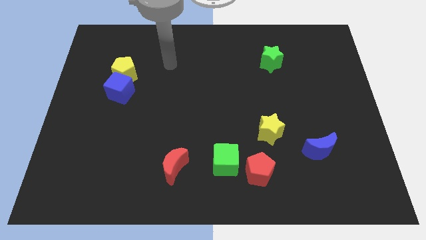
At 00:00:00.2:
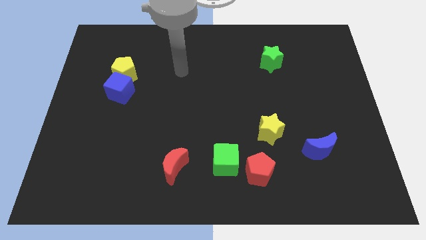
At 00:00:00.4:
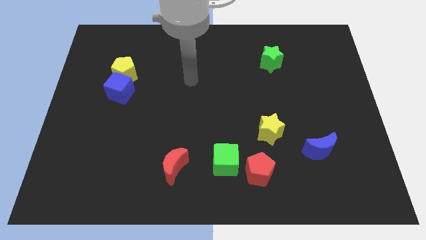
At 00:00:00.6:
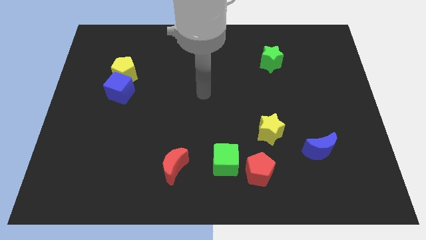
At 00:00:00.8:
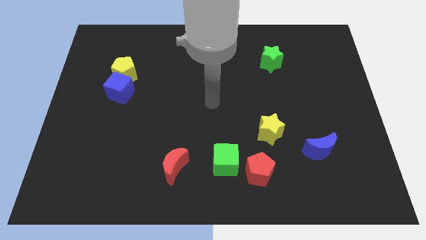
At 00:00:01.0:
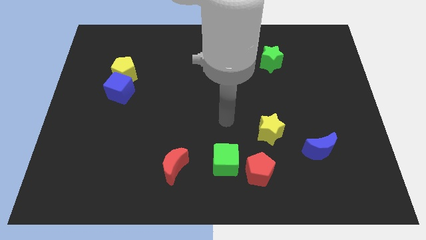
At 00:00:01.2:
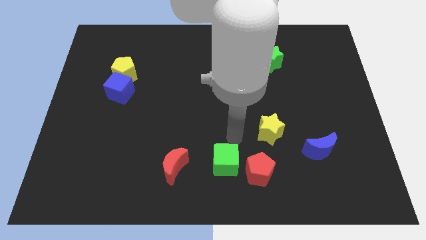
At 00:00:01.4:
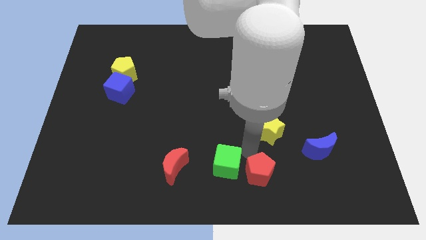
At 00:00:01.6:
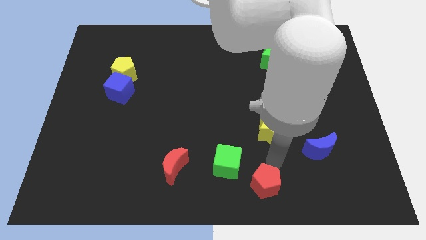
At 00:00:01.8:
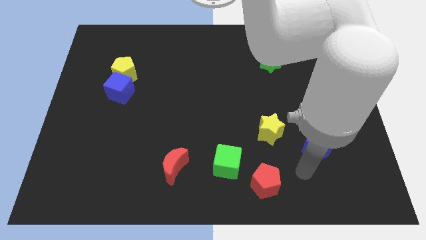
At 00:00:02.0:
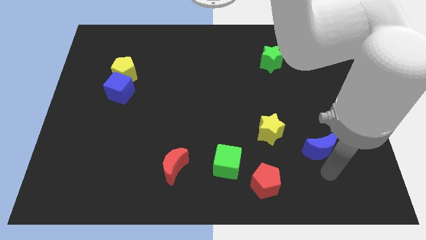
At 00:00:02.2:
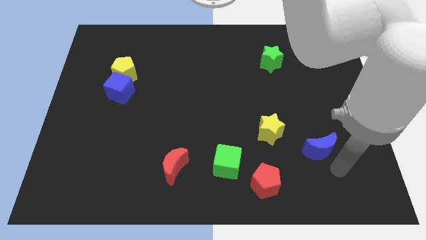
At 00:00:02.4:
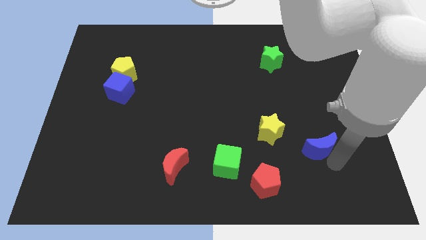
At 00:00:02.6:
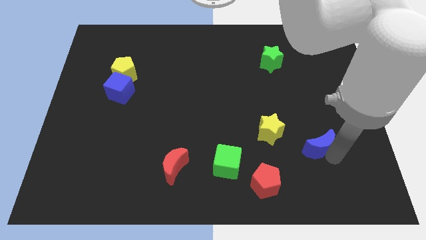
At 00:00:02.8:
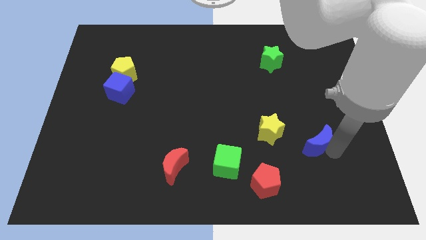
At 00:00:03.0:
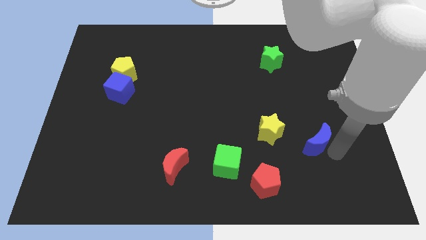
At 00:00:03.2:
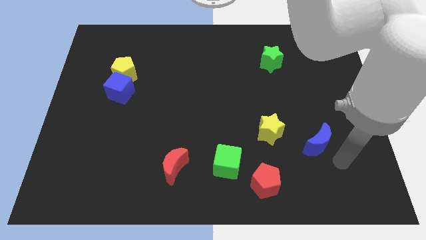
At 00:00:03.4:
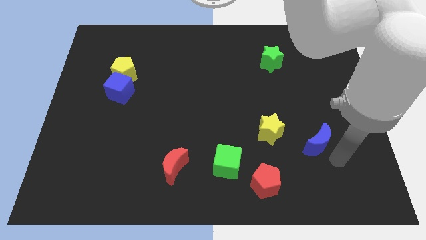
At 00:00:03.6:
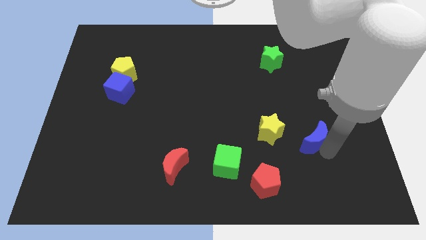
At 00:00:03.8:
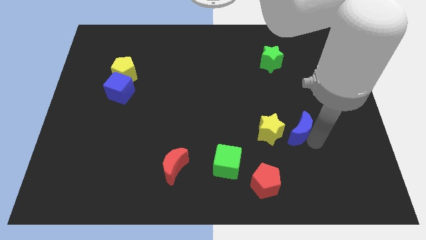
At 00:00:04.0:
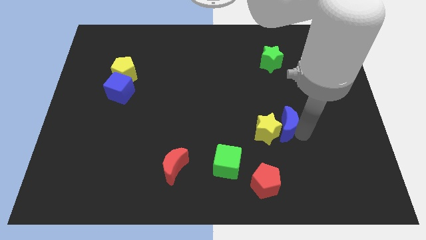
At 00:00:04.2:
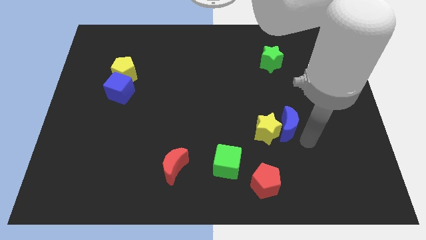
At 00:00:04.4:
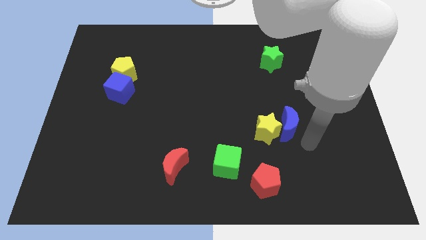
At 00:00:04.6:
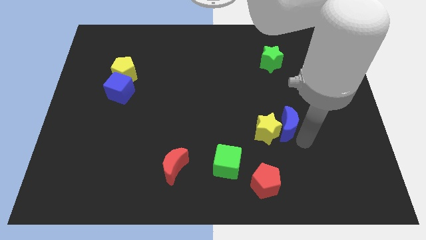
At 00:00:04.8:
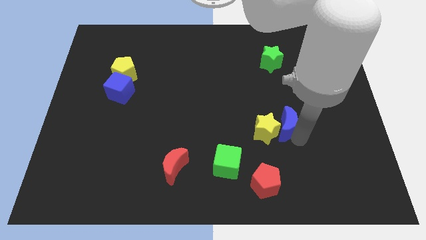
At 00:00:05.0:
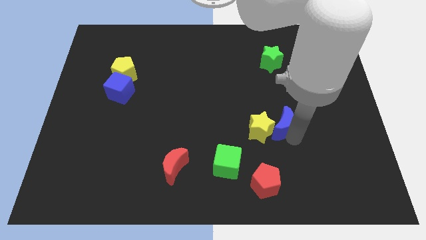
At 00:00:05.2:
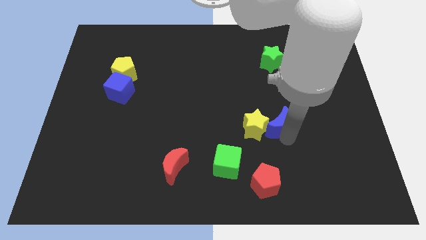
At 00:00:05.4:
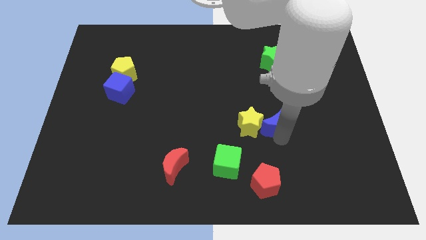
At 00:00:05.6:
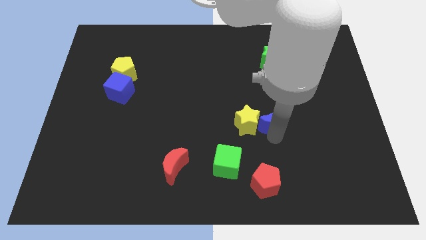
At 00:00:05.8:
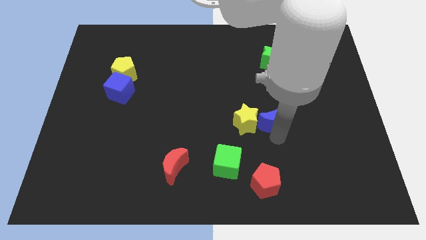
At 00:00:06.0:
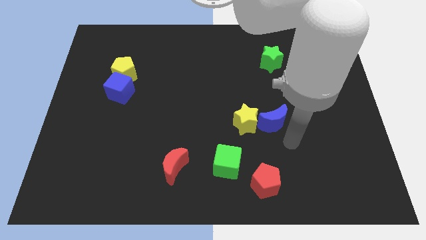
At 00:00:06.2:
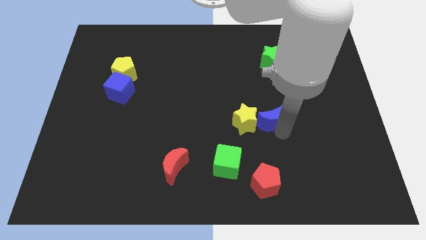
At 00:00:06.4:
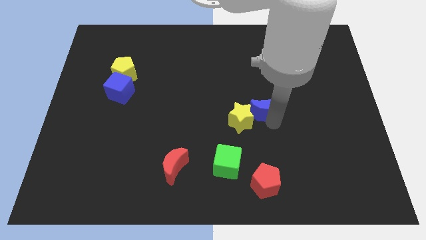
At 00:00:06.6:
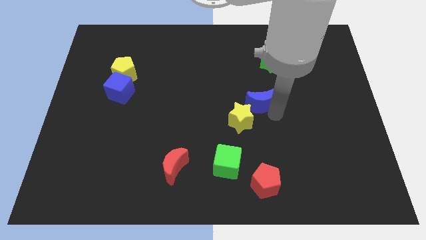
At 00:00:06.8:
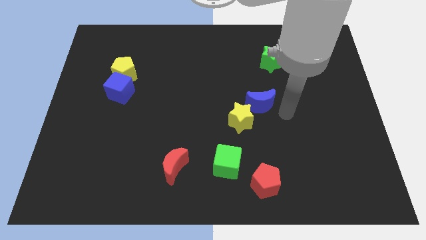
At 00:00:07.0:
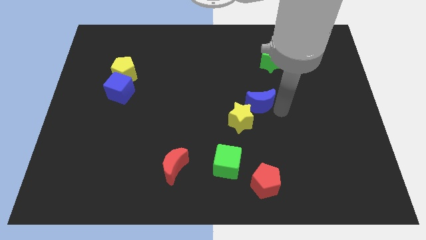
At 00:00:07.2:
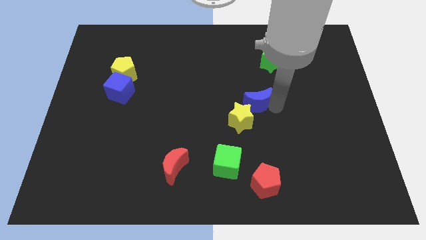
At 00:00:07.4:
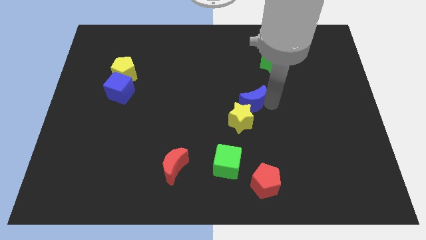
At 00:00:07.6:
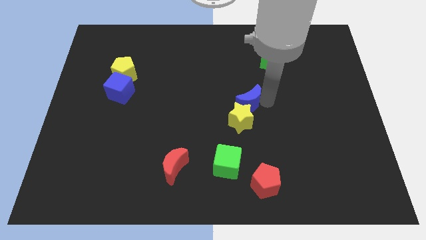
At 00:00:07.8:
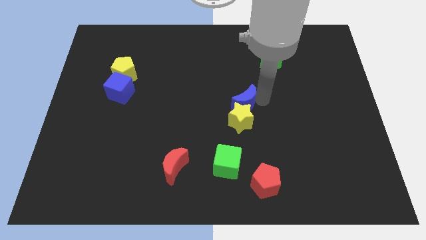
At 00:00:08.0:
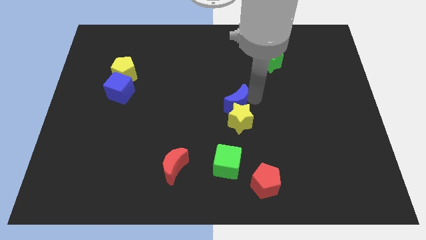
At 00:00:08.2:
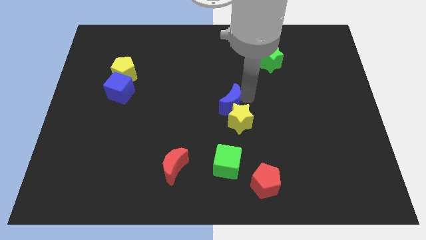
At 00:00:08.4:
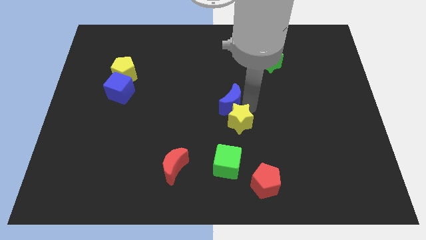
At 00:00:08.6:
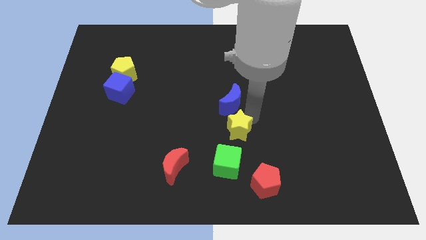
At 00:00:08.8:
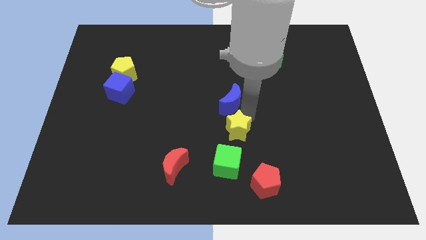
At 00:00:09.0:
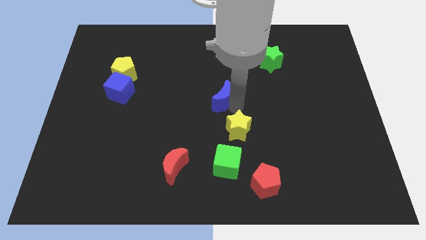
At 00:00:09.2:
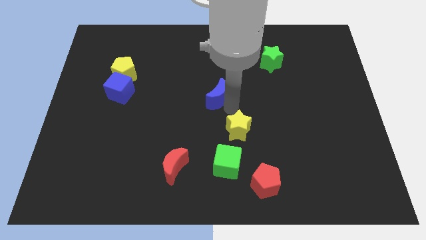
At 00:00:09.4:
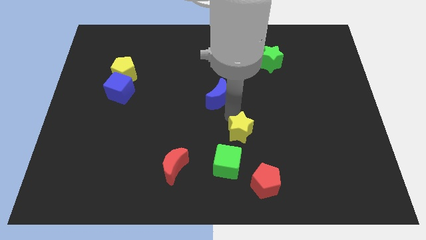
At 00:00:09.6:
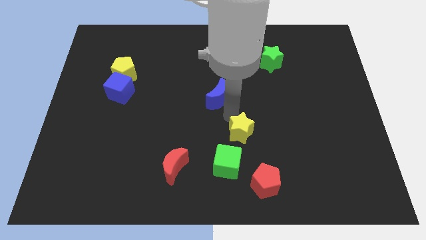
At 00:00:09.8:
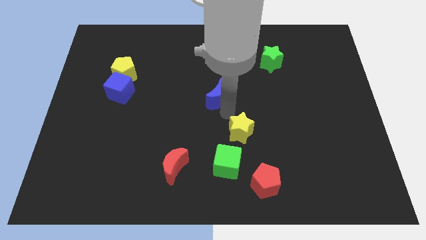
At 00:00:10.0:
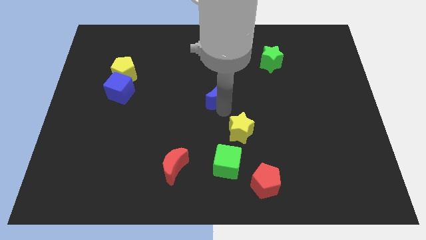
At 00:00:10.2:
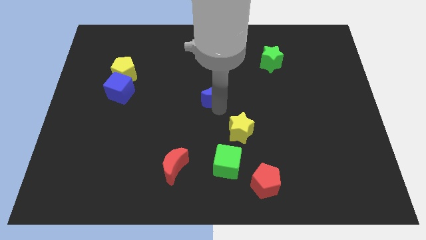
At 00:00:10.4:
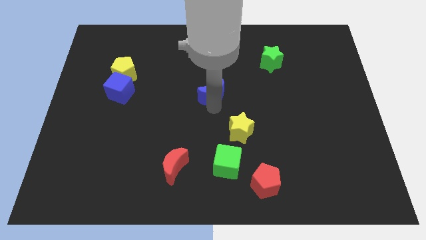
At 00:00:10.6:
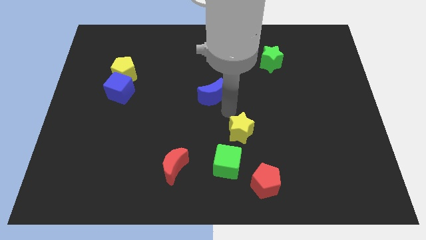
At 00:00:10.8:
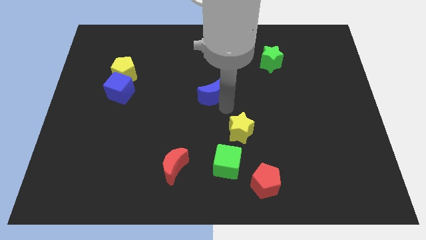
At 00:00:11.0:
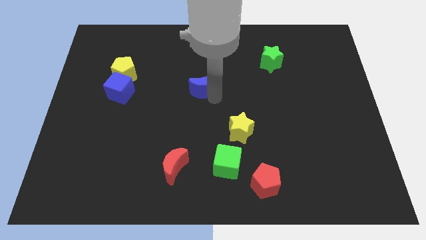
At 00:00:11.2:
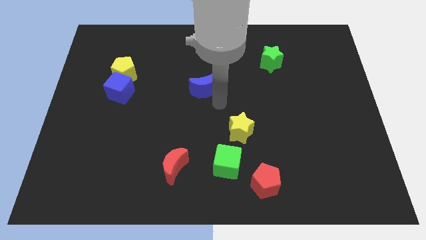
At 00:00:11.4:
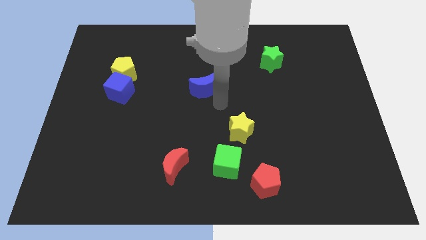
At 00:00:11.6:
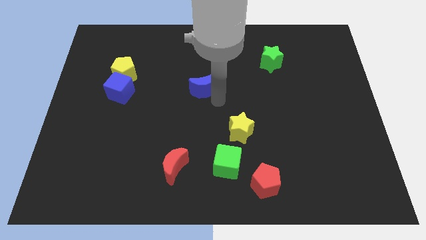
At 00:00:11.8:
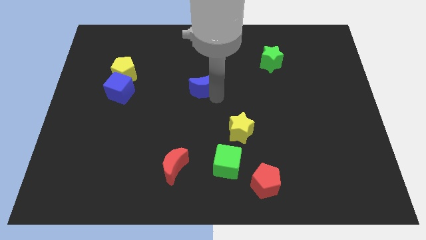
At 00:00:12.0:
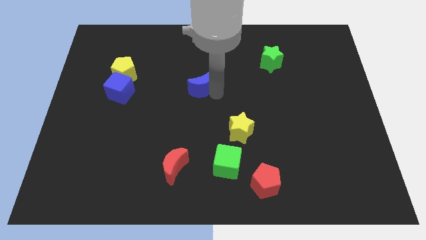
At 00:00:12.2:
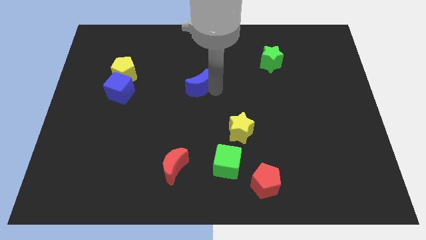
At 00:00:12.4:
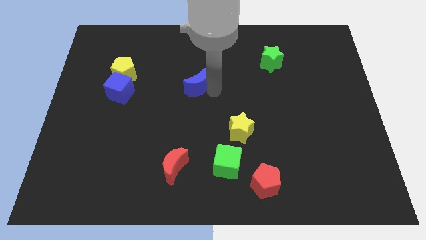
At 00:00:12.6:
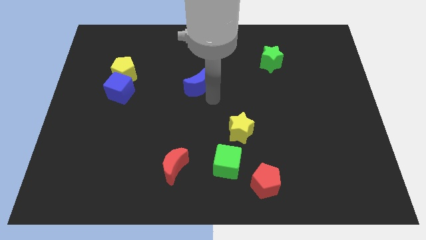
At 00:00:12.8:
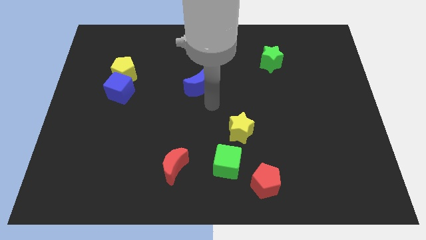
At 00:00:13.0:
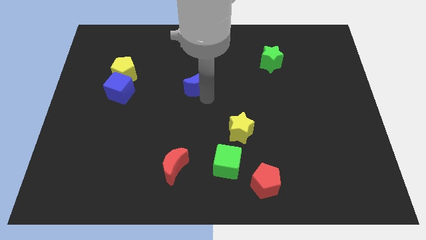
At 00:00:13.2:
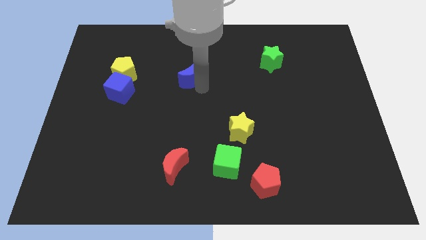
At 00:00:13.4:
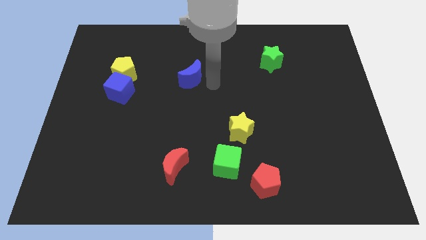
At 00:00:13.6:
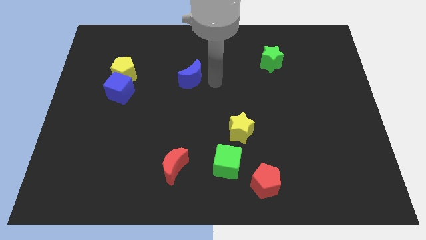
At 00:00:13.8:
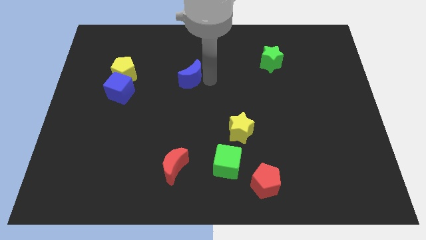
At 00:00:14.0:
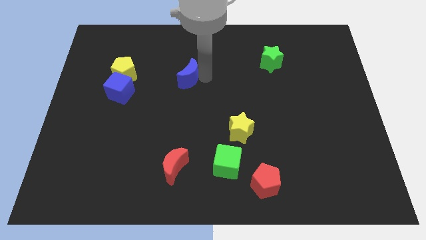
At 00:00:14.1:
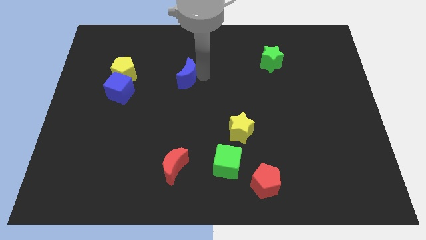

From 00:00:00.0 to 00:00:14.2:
move the blue moon to the right side of the yellow pentagon
